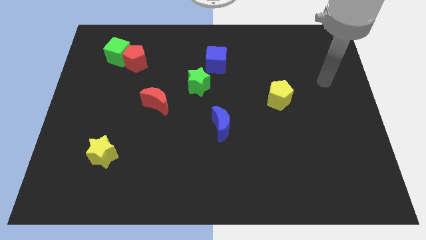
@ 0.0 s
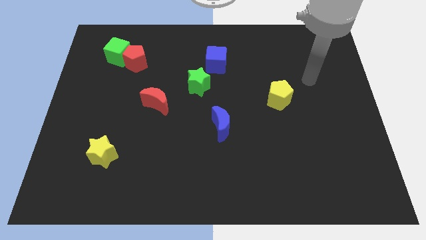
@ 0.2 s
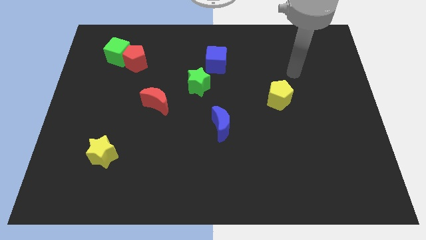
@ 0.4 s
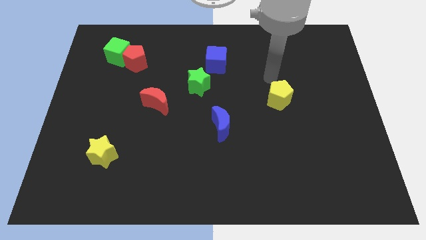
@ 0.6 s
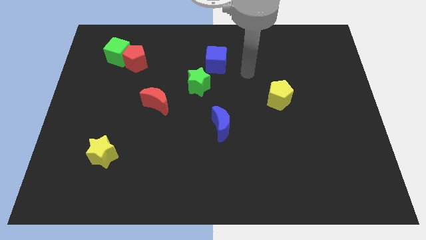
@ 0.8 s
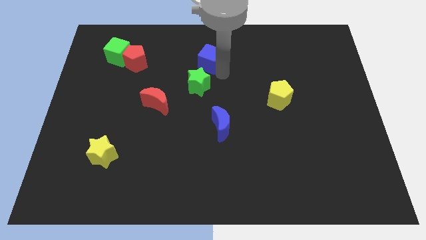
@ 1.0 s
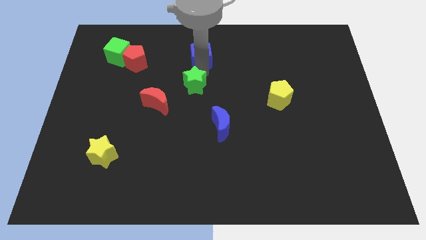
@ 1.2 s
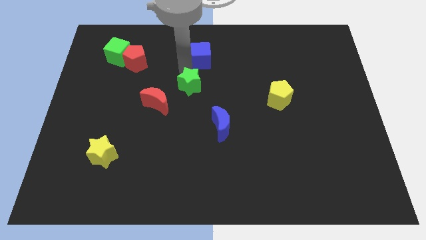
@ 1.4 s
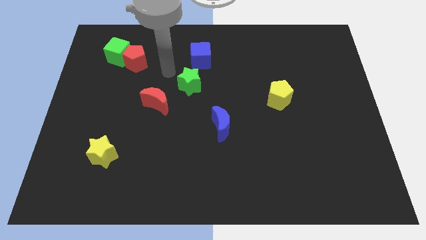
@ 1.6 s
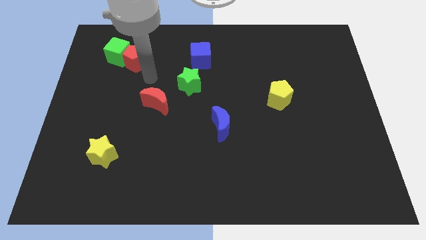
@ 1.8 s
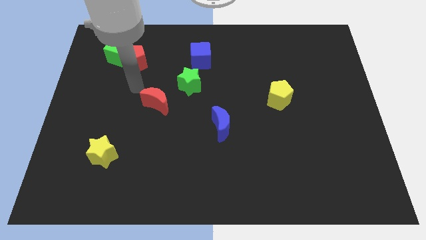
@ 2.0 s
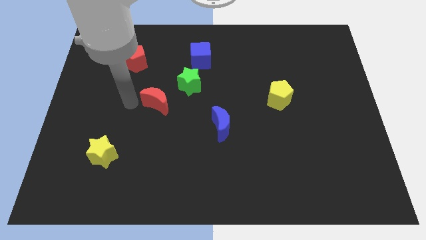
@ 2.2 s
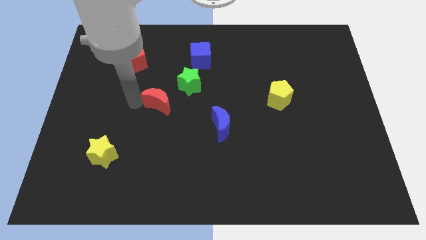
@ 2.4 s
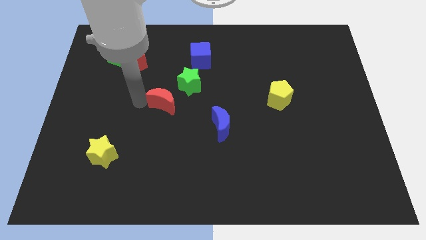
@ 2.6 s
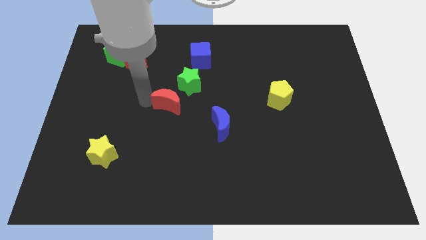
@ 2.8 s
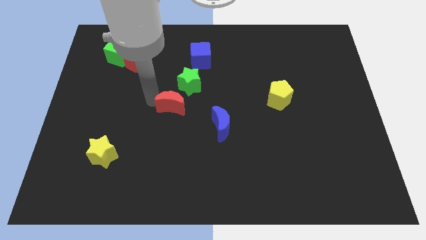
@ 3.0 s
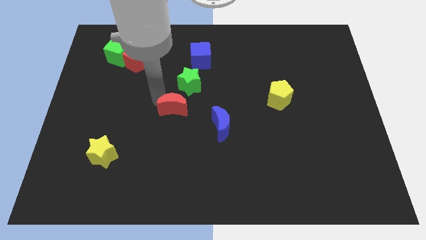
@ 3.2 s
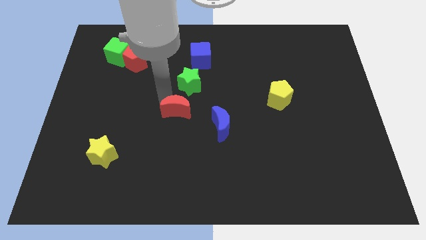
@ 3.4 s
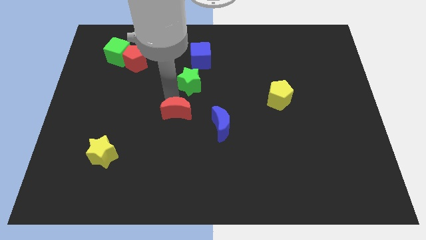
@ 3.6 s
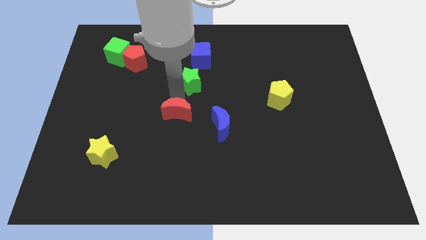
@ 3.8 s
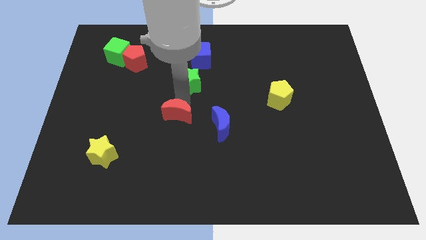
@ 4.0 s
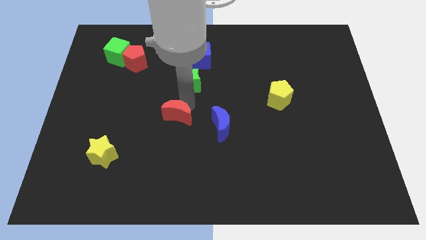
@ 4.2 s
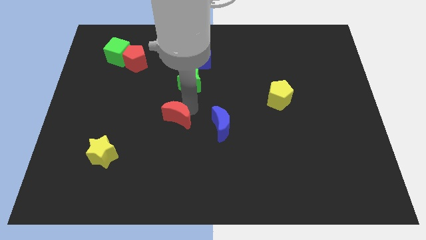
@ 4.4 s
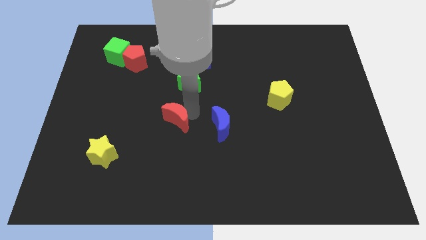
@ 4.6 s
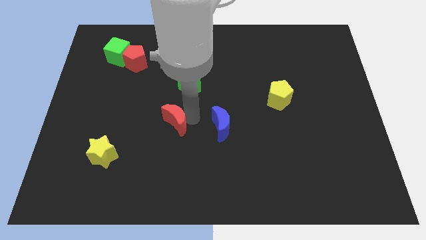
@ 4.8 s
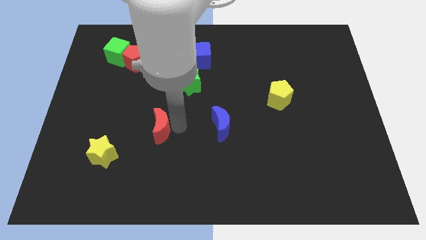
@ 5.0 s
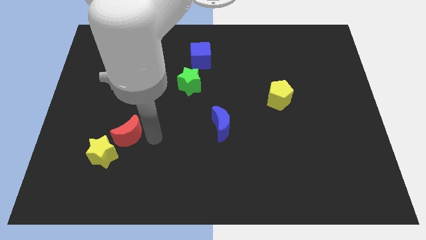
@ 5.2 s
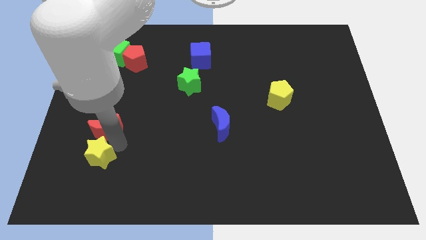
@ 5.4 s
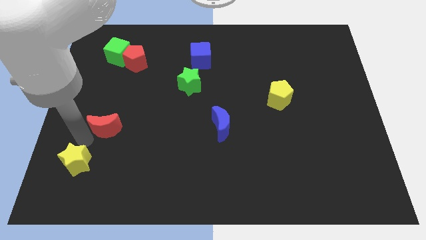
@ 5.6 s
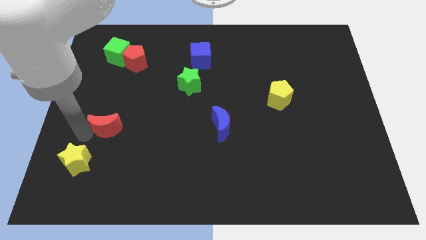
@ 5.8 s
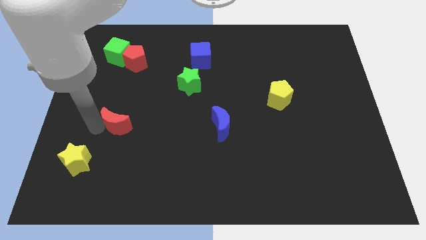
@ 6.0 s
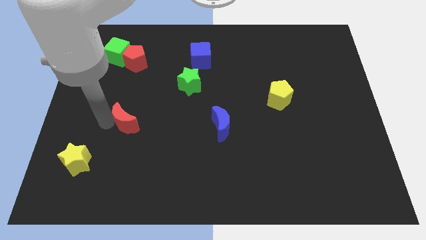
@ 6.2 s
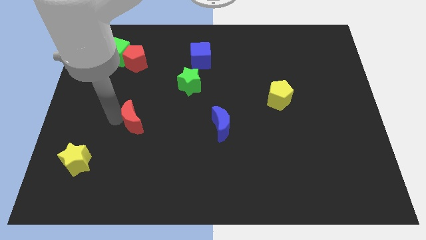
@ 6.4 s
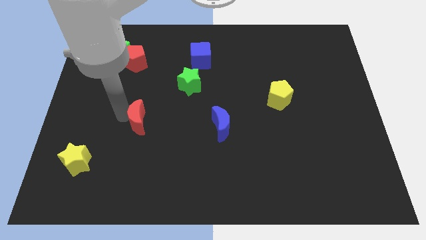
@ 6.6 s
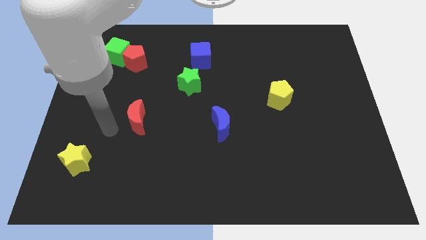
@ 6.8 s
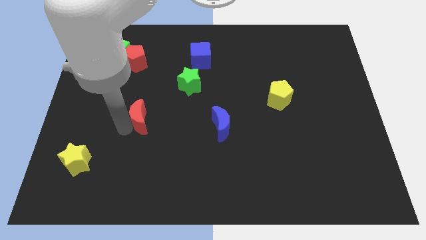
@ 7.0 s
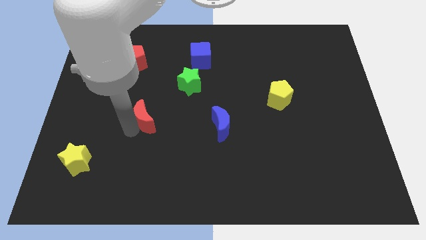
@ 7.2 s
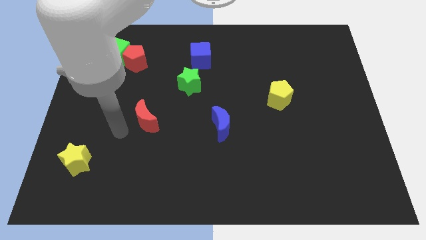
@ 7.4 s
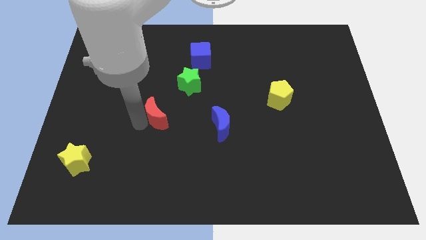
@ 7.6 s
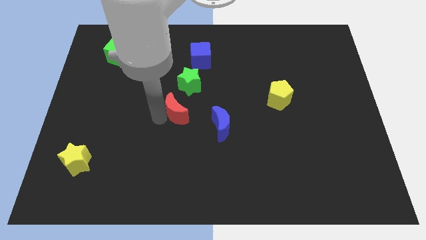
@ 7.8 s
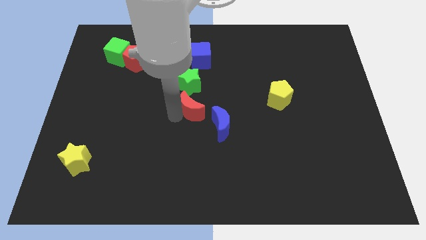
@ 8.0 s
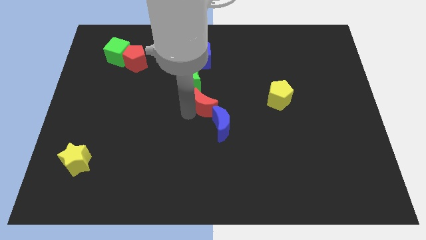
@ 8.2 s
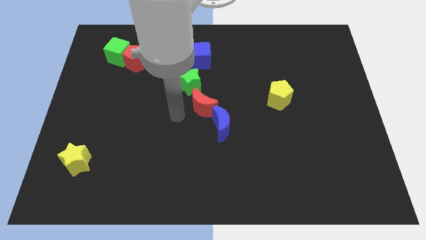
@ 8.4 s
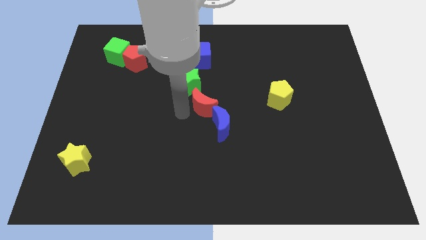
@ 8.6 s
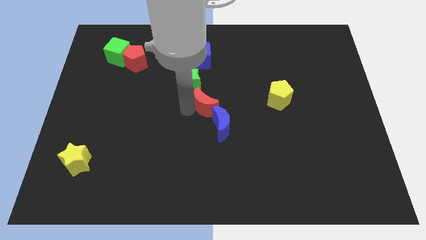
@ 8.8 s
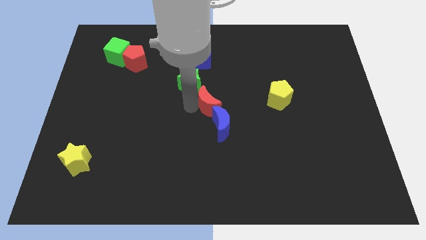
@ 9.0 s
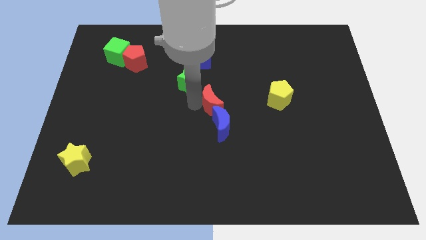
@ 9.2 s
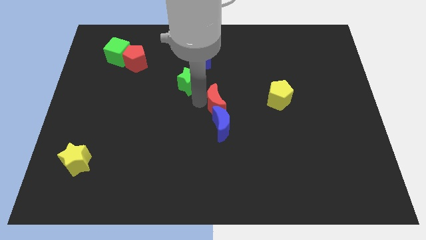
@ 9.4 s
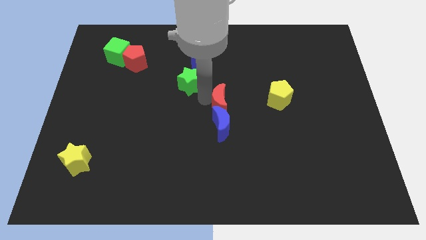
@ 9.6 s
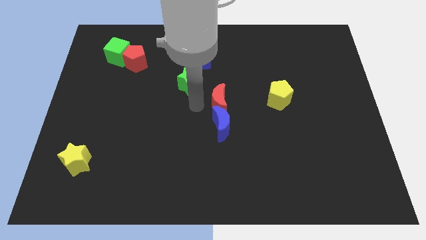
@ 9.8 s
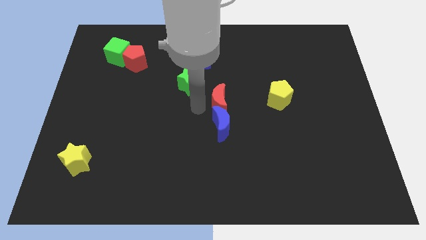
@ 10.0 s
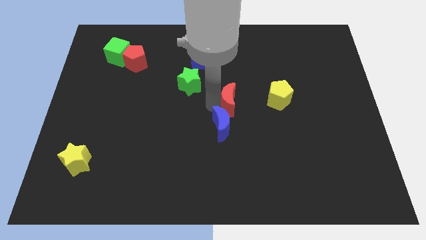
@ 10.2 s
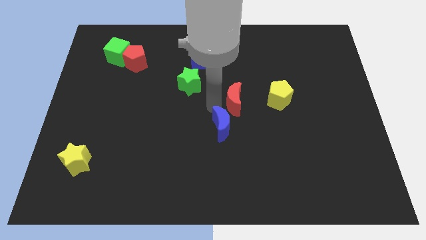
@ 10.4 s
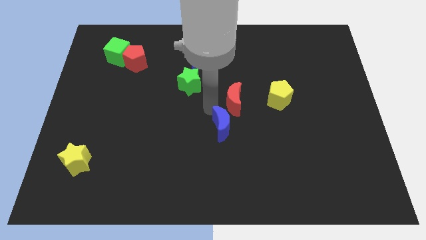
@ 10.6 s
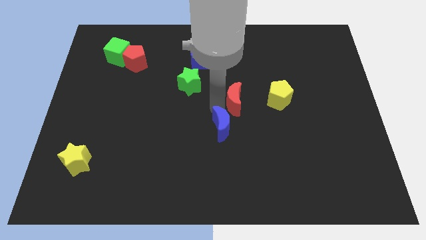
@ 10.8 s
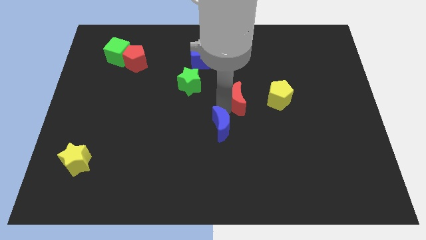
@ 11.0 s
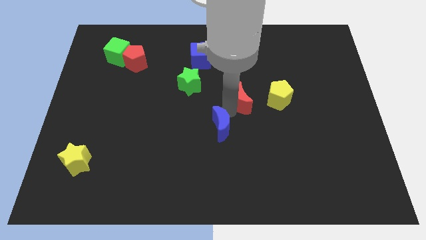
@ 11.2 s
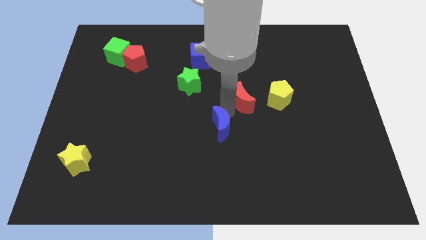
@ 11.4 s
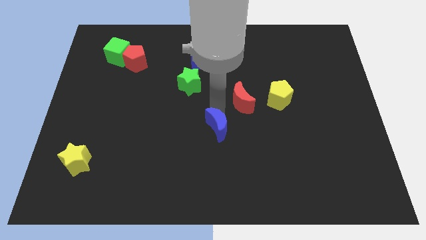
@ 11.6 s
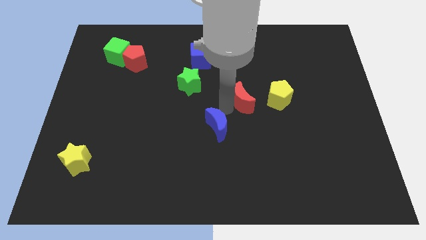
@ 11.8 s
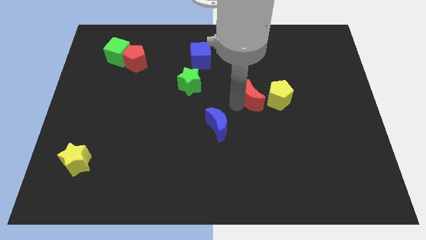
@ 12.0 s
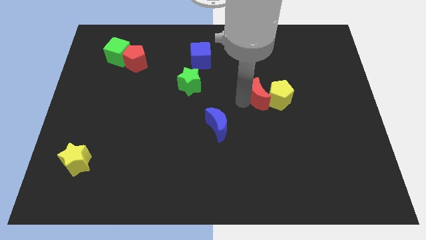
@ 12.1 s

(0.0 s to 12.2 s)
push the red moon to the yellow pentagon
